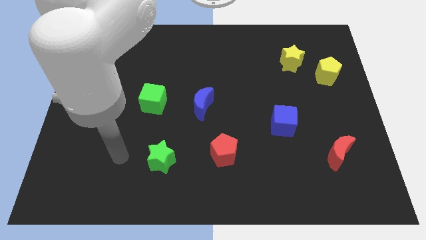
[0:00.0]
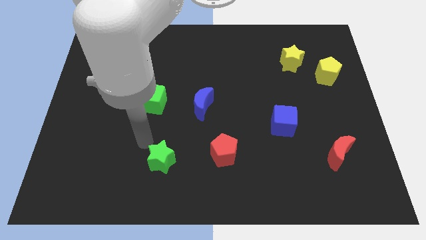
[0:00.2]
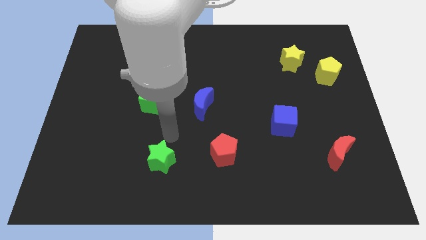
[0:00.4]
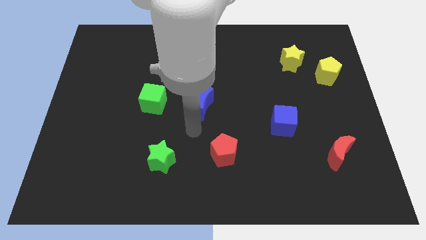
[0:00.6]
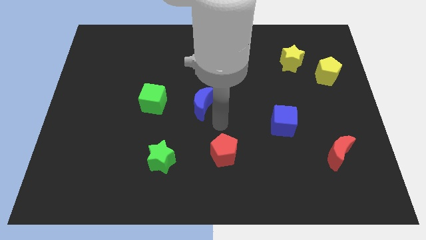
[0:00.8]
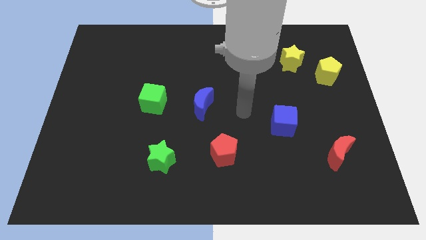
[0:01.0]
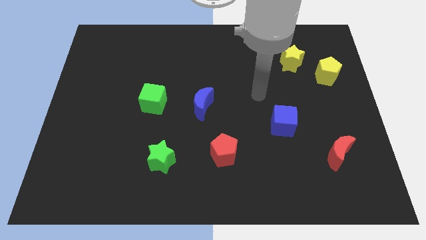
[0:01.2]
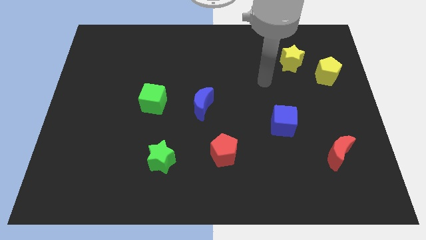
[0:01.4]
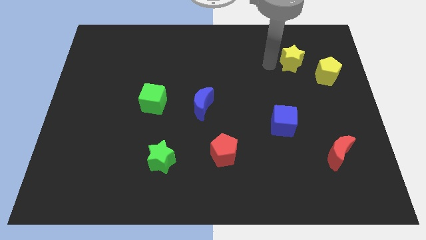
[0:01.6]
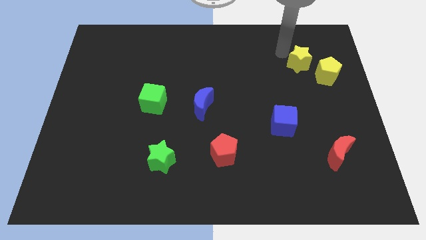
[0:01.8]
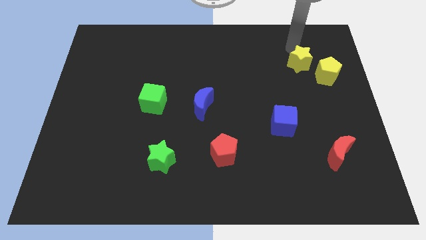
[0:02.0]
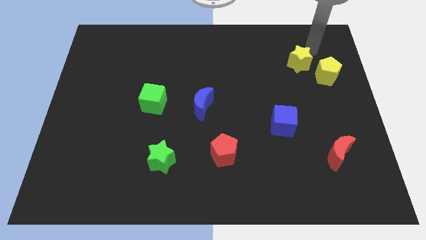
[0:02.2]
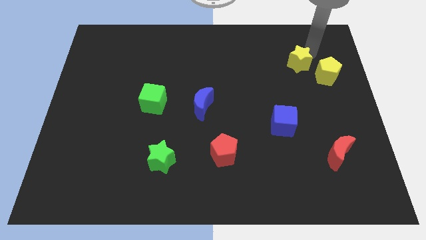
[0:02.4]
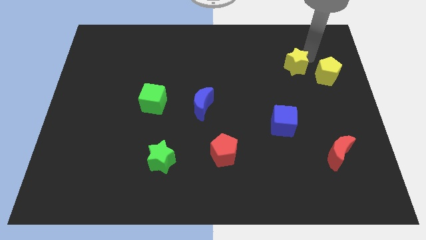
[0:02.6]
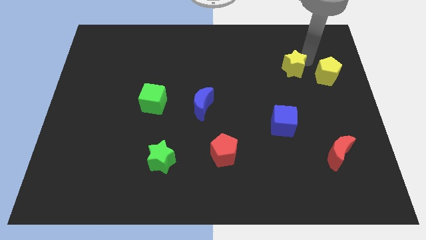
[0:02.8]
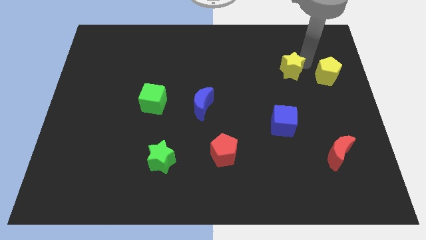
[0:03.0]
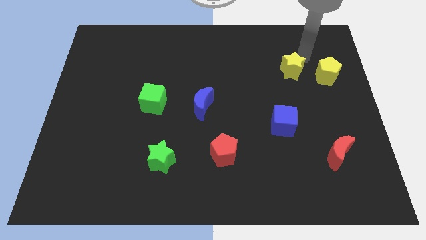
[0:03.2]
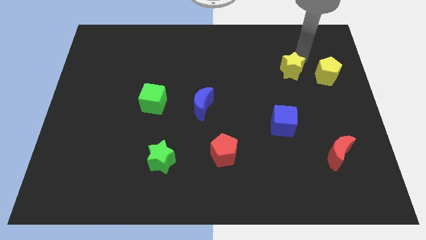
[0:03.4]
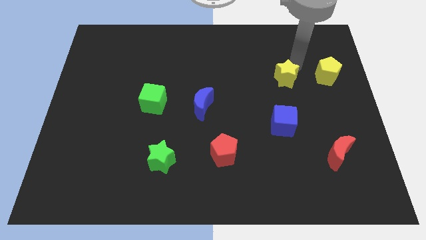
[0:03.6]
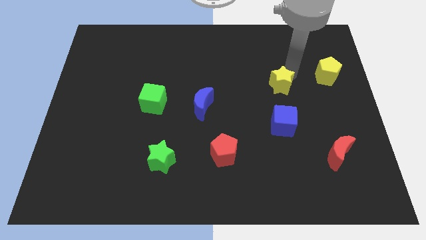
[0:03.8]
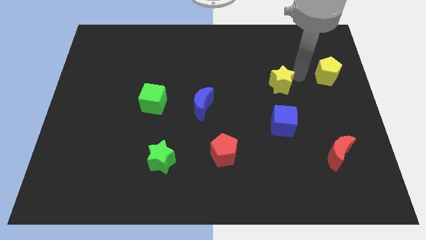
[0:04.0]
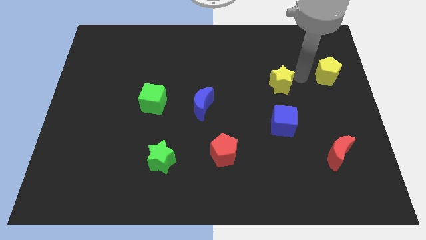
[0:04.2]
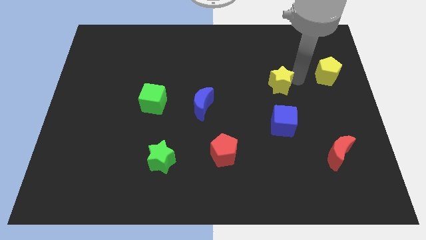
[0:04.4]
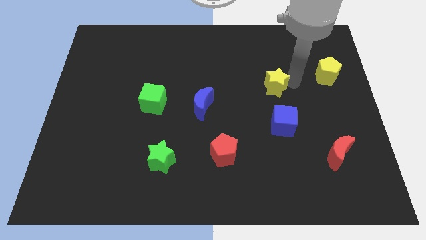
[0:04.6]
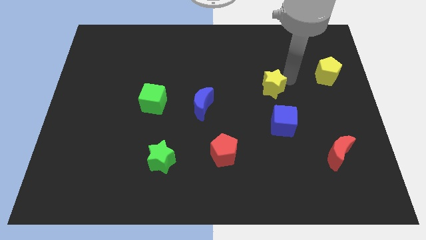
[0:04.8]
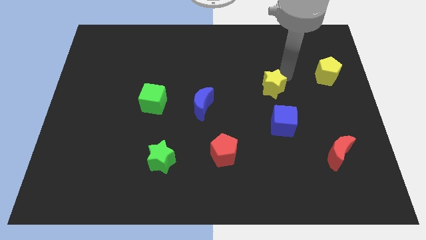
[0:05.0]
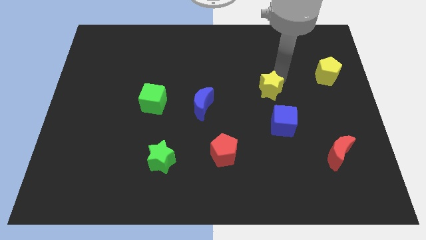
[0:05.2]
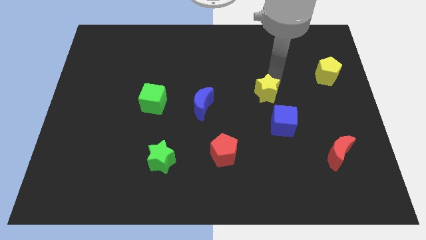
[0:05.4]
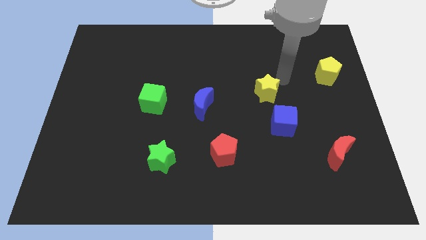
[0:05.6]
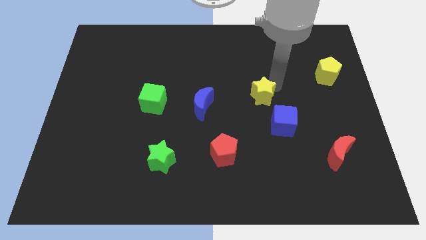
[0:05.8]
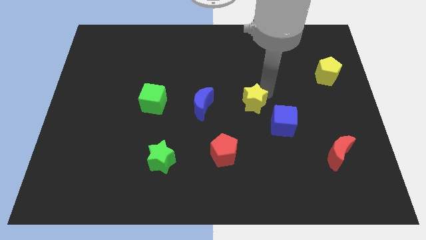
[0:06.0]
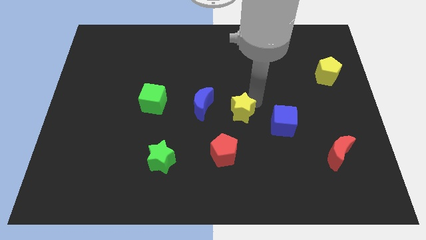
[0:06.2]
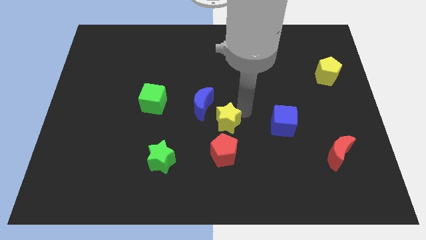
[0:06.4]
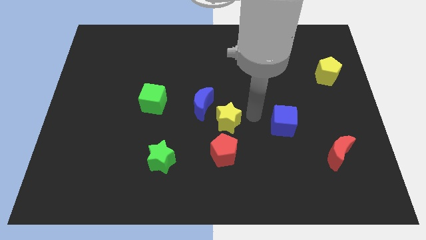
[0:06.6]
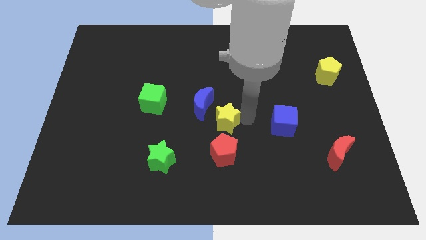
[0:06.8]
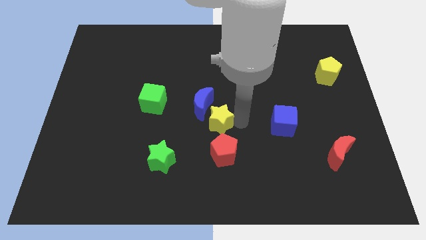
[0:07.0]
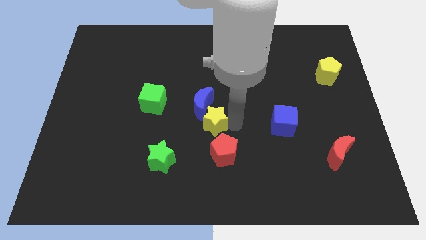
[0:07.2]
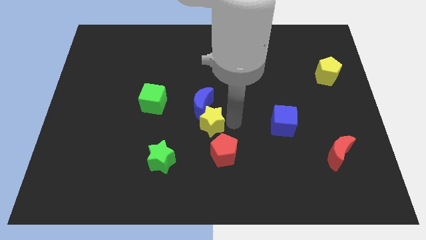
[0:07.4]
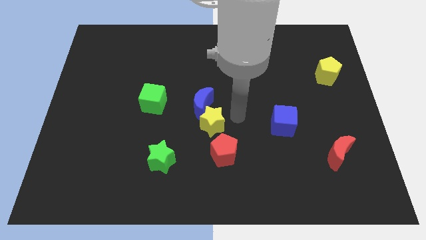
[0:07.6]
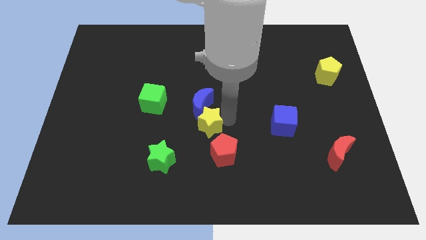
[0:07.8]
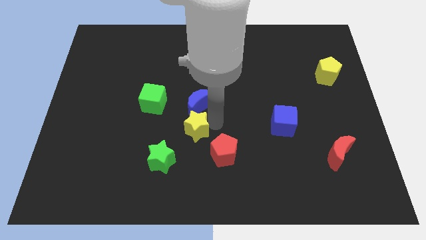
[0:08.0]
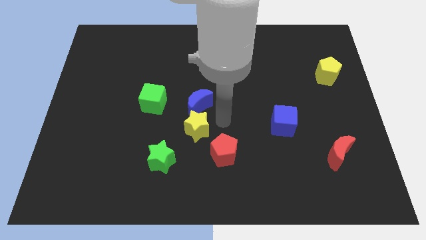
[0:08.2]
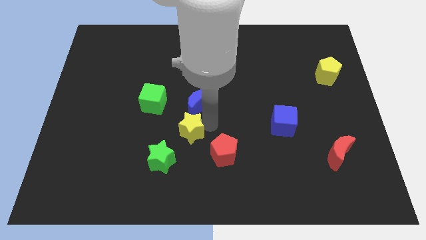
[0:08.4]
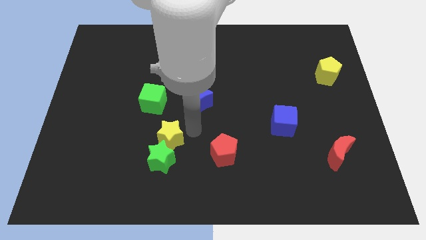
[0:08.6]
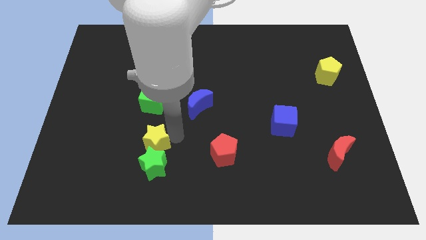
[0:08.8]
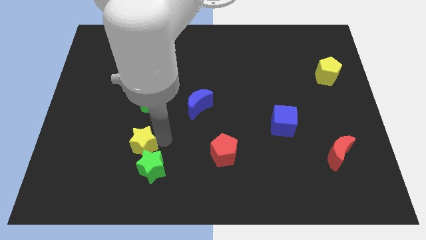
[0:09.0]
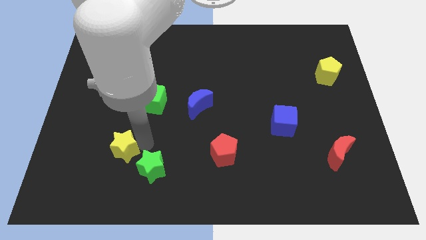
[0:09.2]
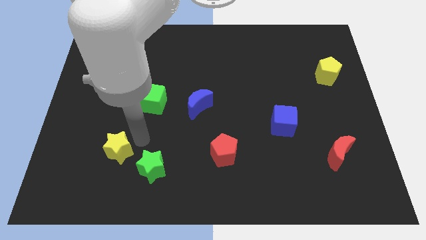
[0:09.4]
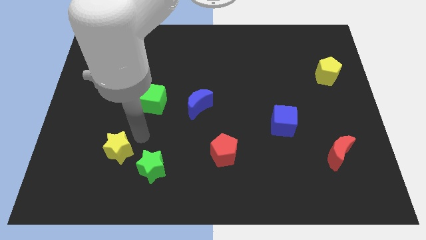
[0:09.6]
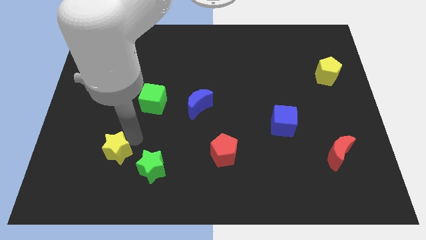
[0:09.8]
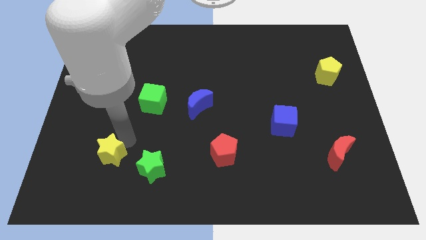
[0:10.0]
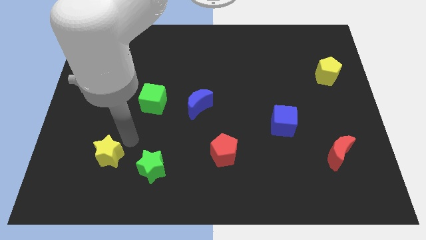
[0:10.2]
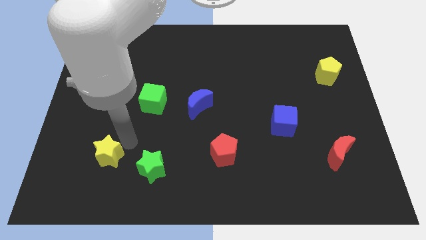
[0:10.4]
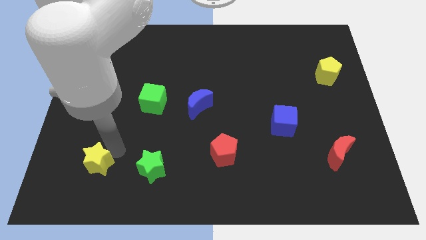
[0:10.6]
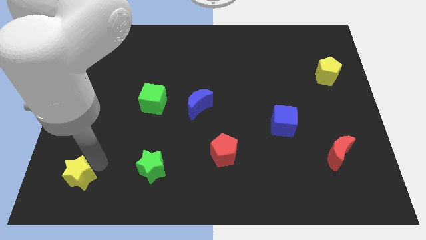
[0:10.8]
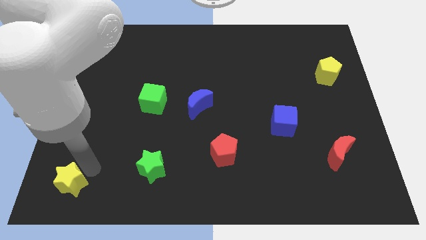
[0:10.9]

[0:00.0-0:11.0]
put the yellow star to the bottom left

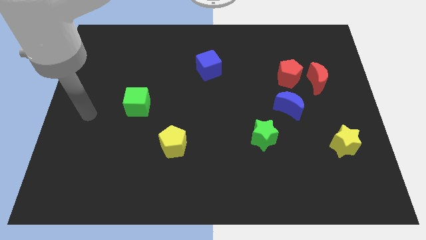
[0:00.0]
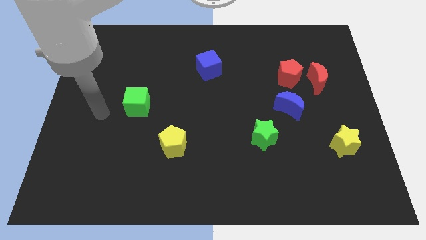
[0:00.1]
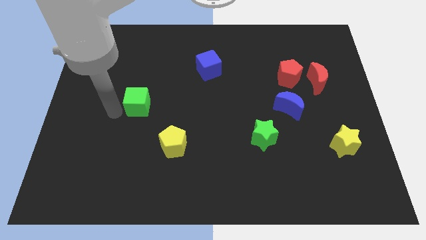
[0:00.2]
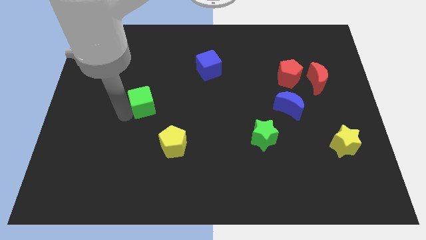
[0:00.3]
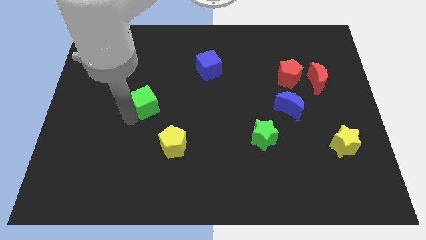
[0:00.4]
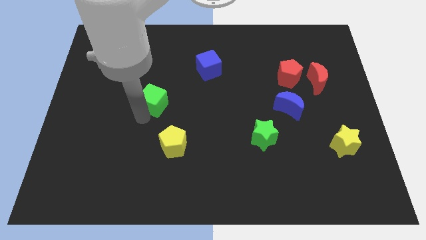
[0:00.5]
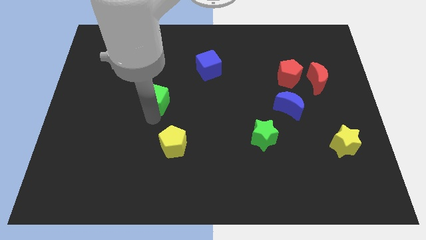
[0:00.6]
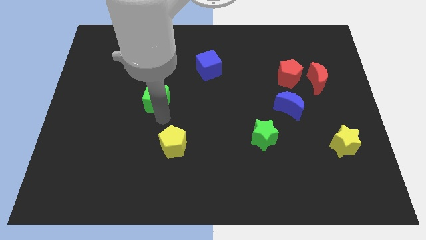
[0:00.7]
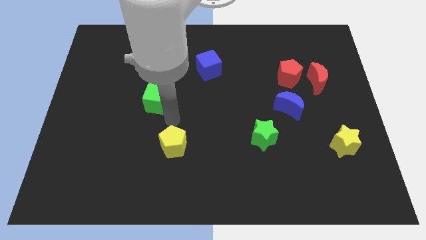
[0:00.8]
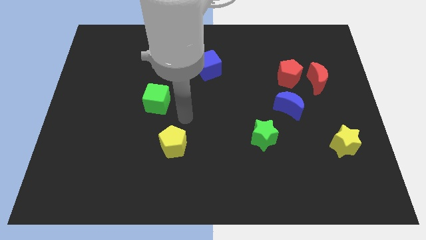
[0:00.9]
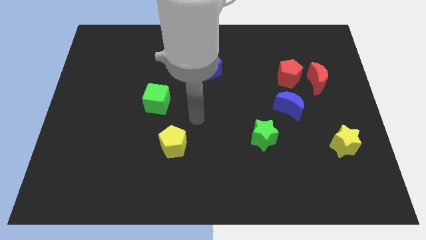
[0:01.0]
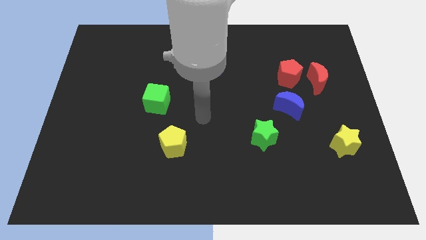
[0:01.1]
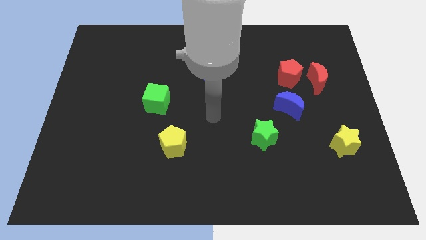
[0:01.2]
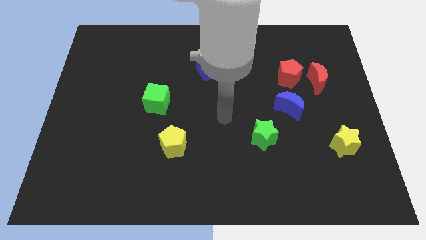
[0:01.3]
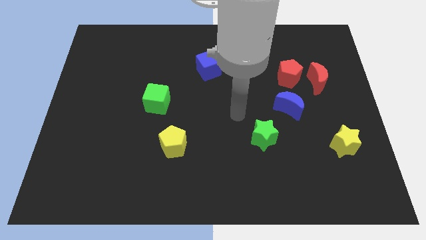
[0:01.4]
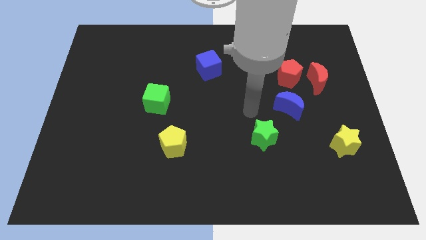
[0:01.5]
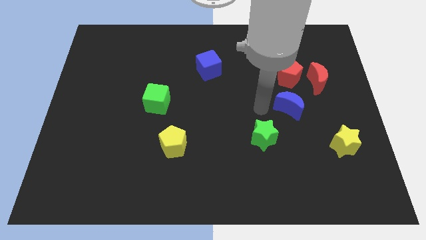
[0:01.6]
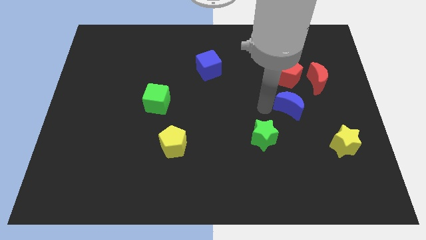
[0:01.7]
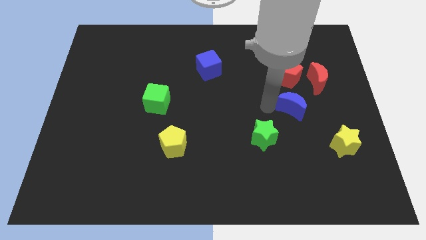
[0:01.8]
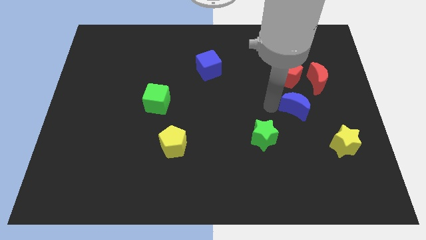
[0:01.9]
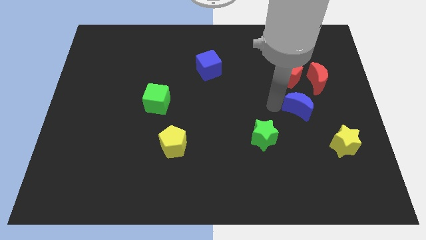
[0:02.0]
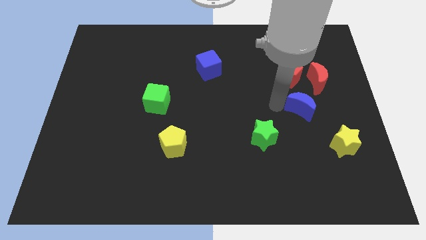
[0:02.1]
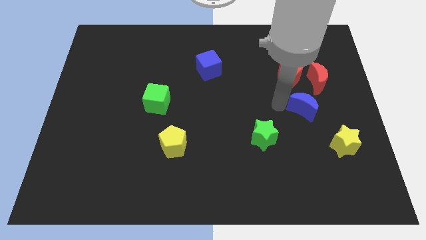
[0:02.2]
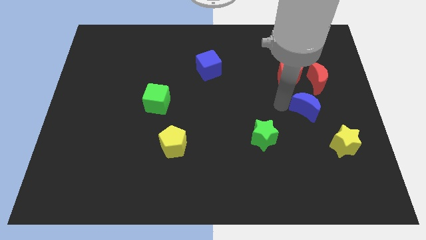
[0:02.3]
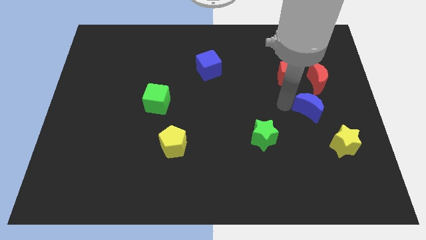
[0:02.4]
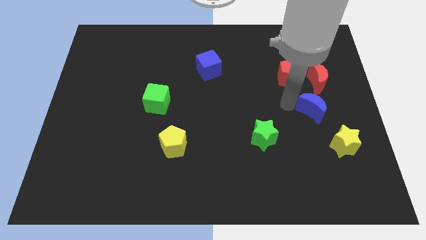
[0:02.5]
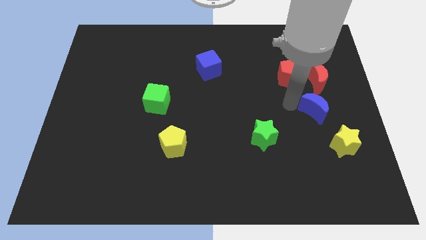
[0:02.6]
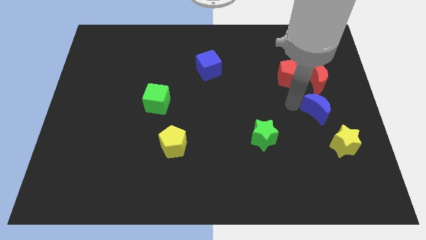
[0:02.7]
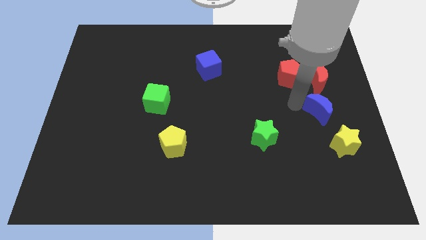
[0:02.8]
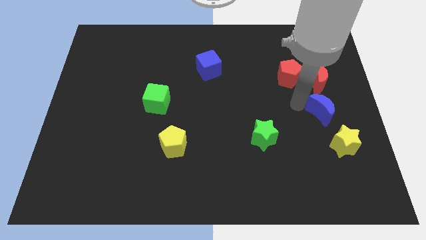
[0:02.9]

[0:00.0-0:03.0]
push the blue moon to the right side of the board
